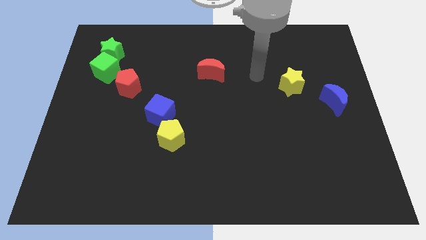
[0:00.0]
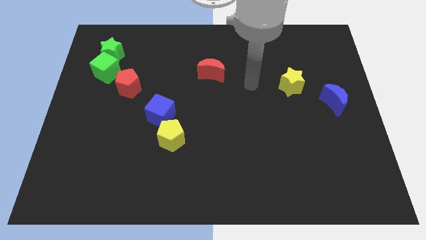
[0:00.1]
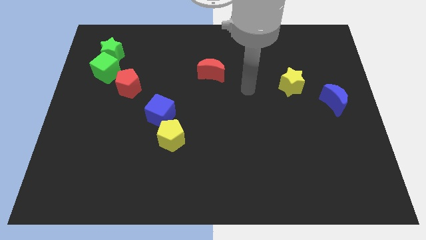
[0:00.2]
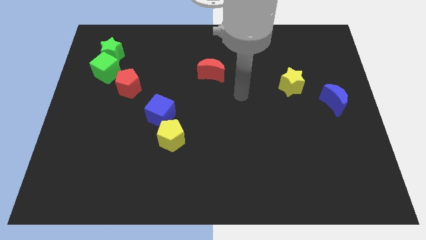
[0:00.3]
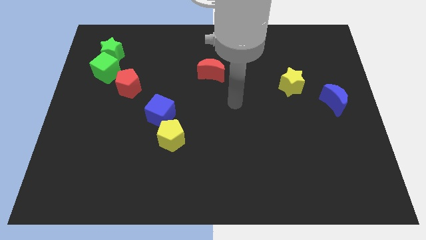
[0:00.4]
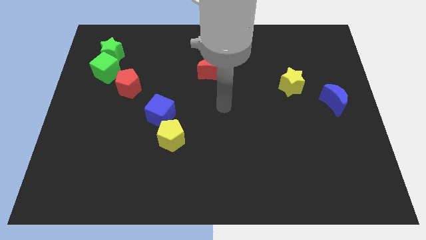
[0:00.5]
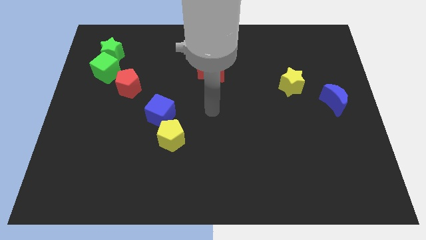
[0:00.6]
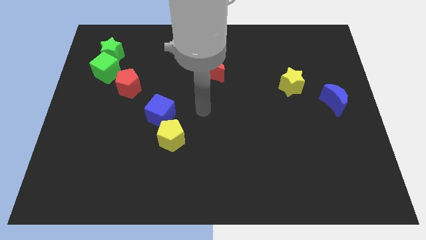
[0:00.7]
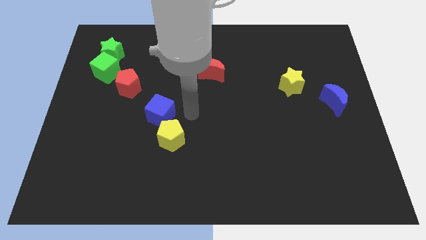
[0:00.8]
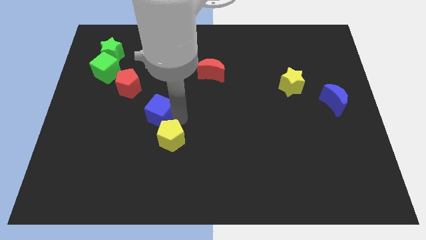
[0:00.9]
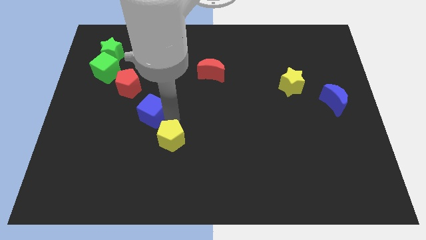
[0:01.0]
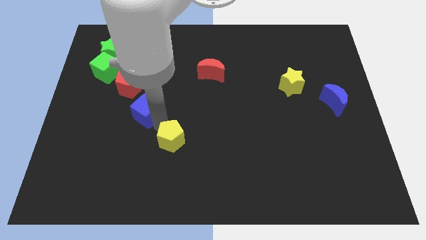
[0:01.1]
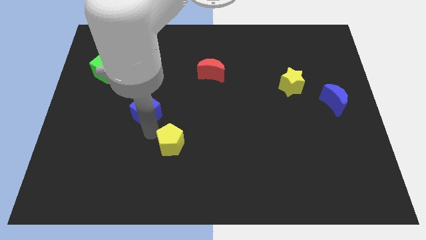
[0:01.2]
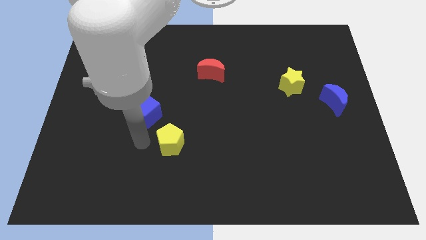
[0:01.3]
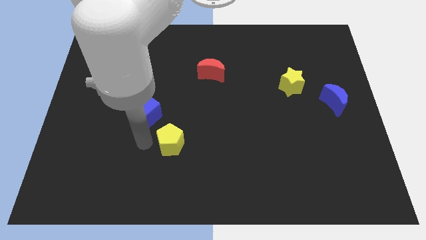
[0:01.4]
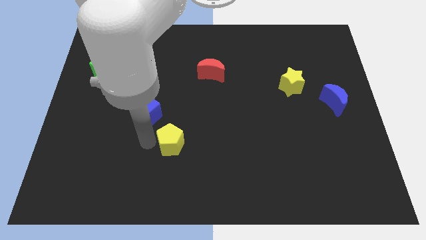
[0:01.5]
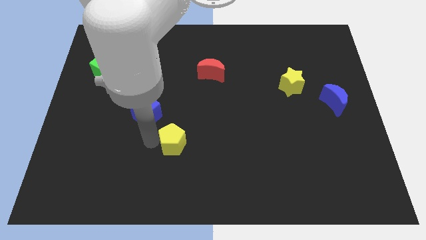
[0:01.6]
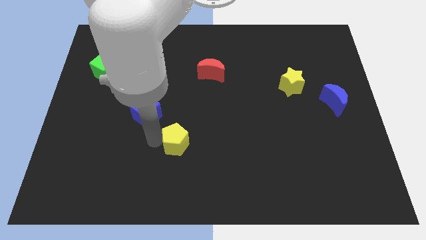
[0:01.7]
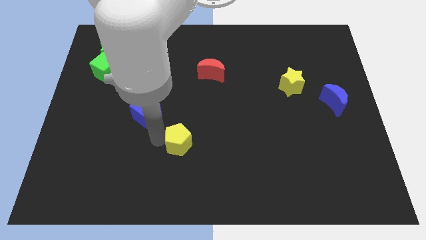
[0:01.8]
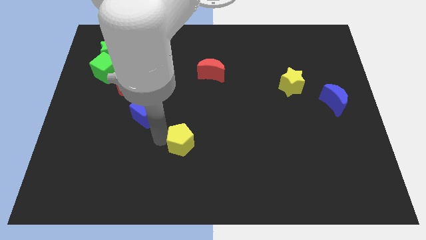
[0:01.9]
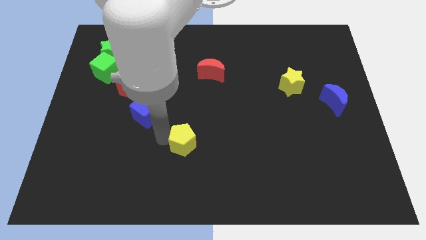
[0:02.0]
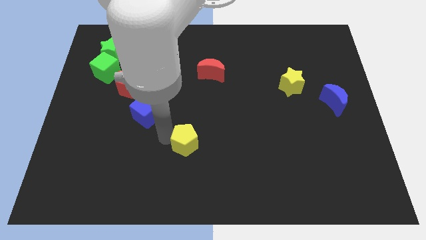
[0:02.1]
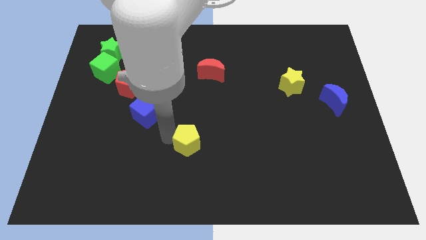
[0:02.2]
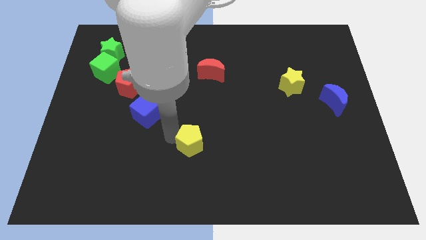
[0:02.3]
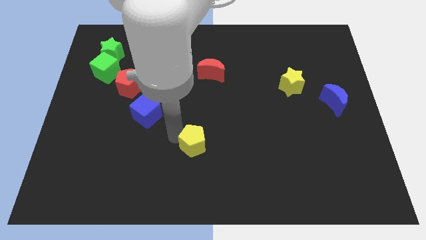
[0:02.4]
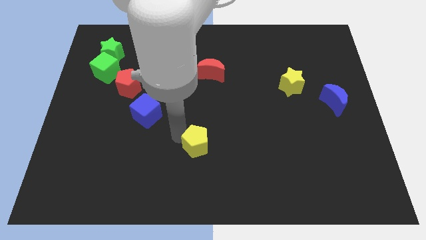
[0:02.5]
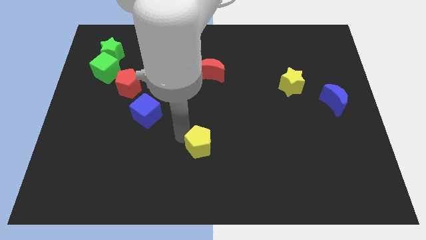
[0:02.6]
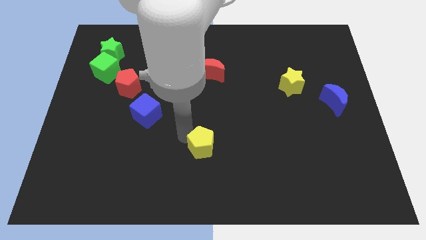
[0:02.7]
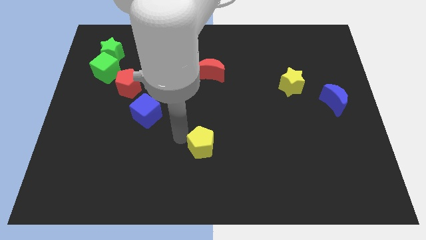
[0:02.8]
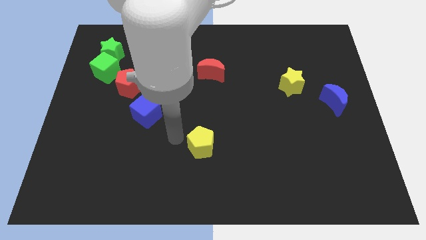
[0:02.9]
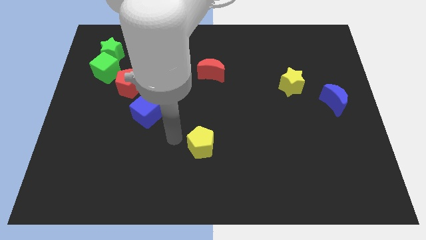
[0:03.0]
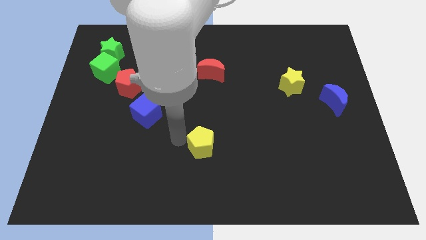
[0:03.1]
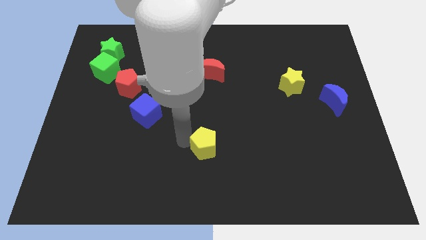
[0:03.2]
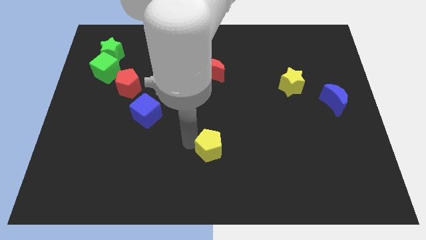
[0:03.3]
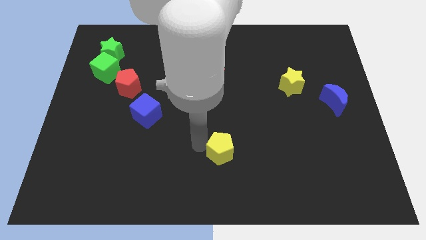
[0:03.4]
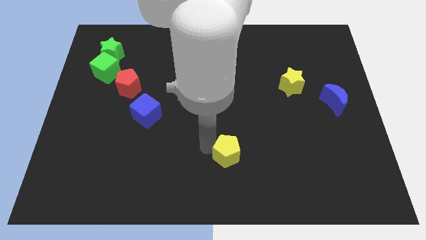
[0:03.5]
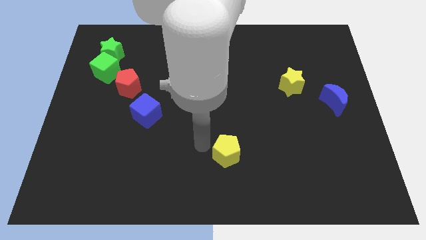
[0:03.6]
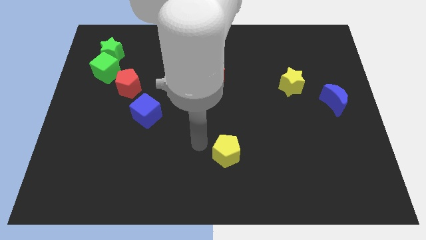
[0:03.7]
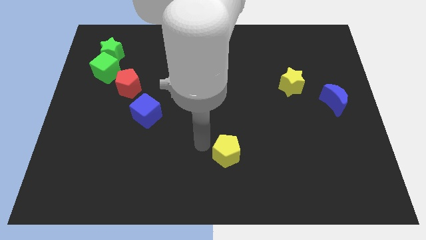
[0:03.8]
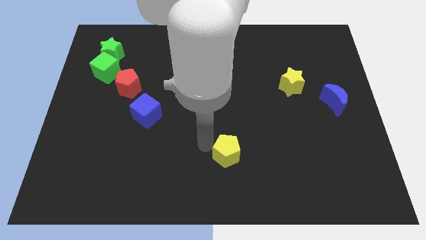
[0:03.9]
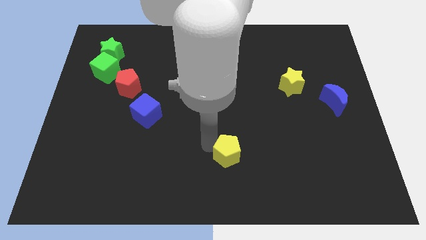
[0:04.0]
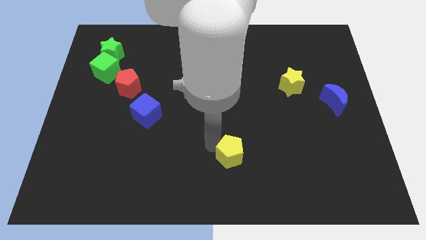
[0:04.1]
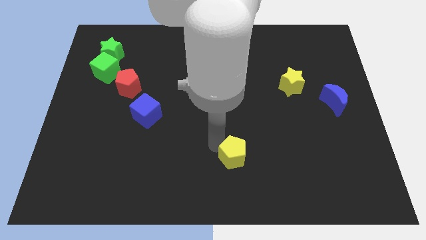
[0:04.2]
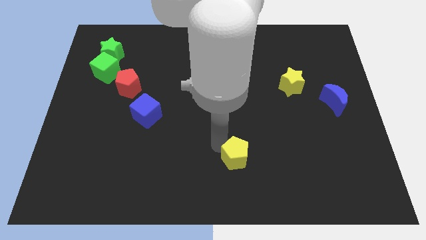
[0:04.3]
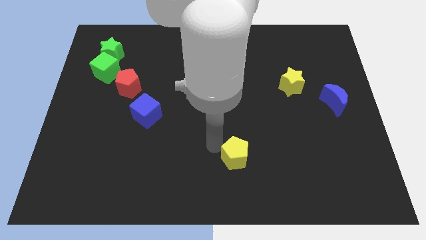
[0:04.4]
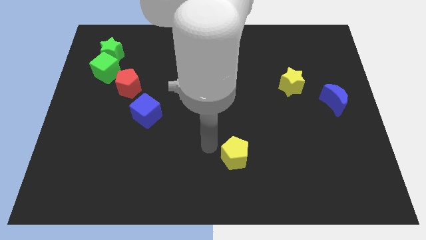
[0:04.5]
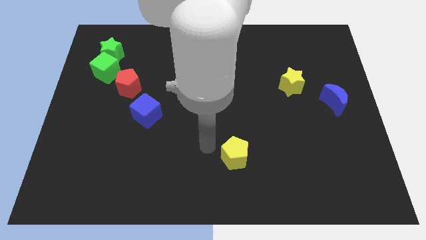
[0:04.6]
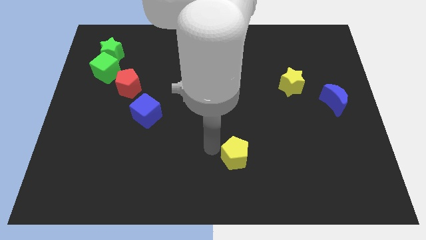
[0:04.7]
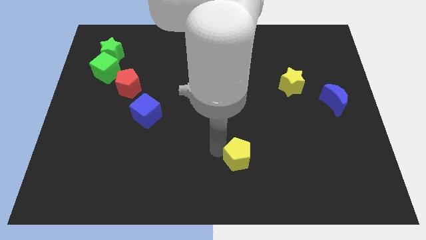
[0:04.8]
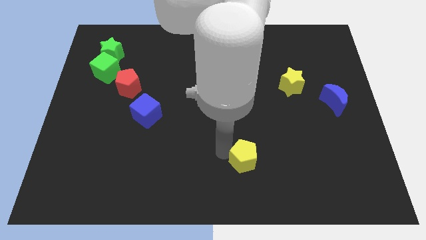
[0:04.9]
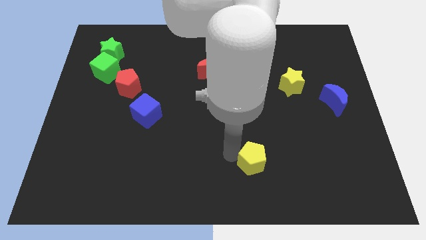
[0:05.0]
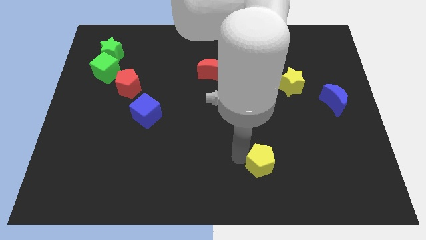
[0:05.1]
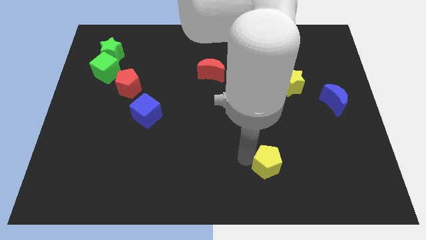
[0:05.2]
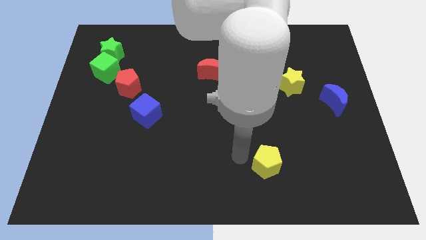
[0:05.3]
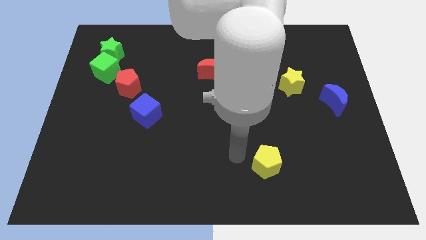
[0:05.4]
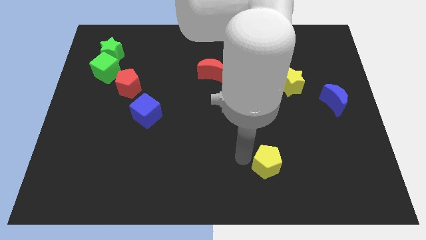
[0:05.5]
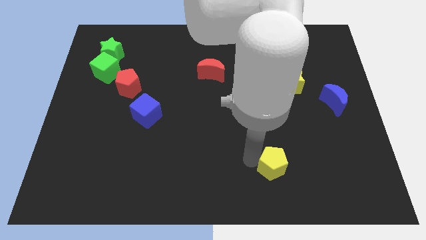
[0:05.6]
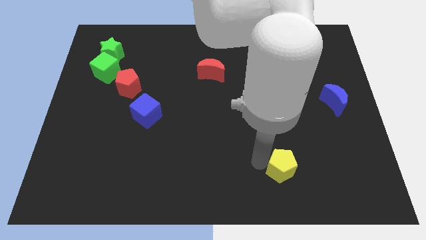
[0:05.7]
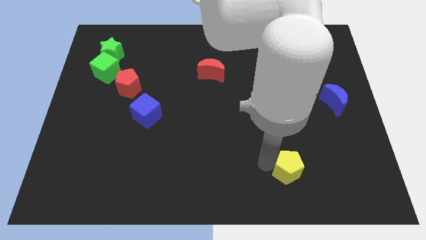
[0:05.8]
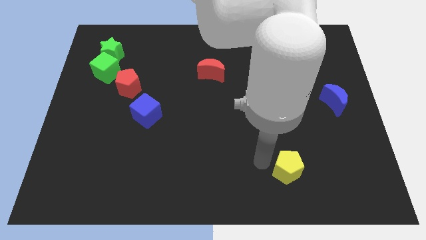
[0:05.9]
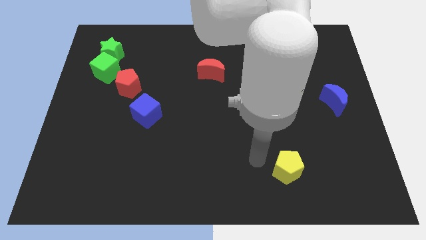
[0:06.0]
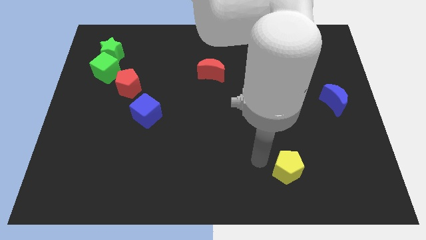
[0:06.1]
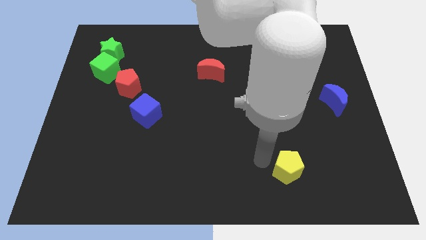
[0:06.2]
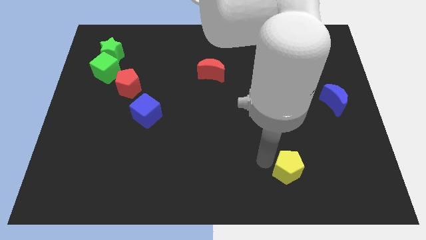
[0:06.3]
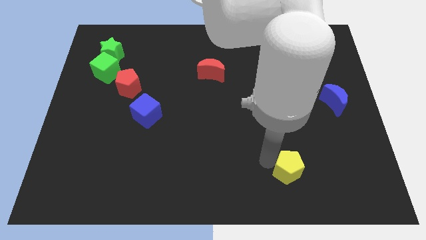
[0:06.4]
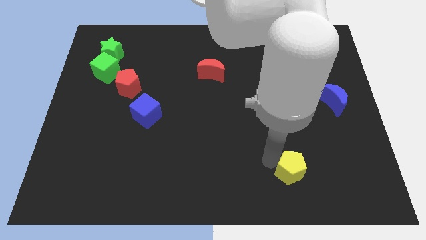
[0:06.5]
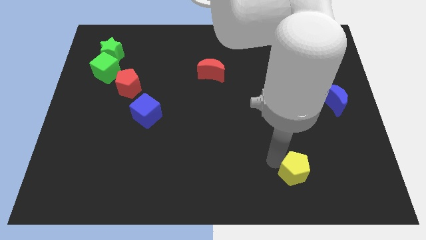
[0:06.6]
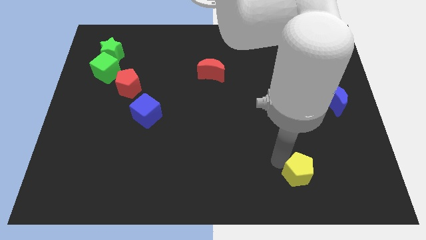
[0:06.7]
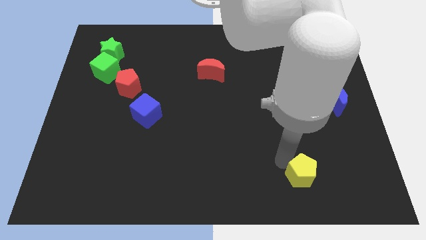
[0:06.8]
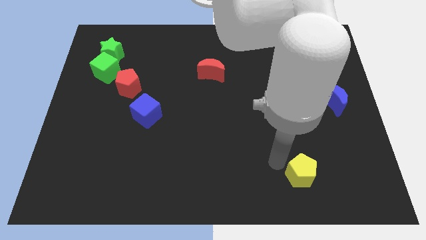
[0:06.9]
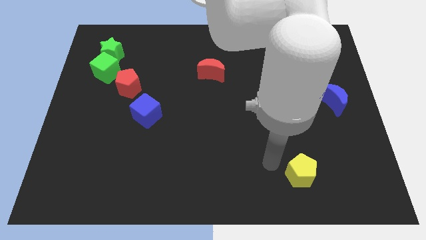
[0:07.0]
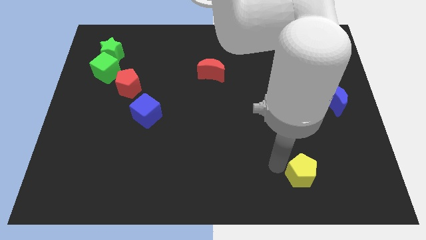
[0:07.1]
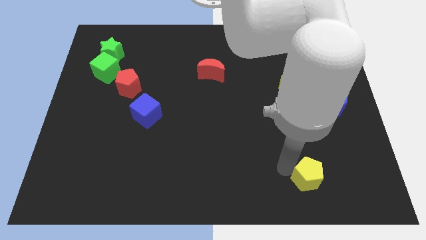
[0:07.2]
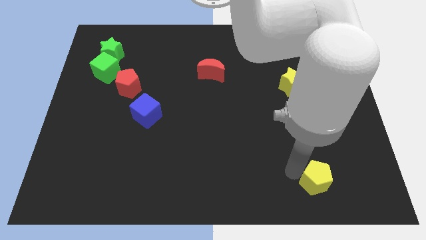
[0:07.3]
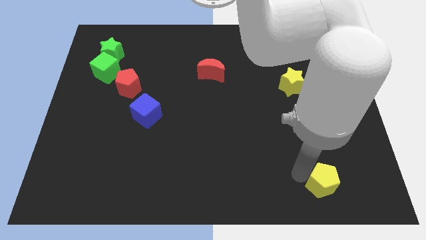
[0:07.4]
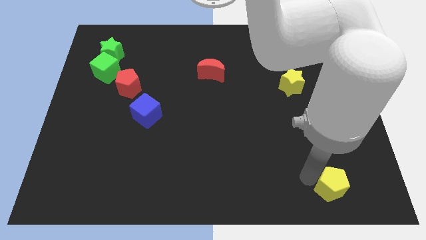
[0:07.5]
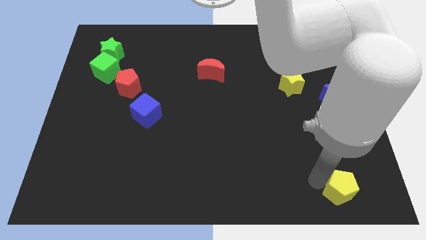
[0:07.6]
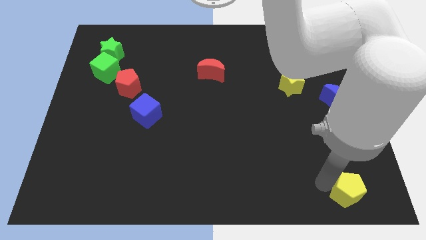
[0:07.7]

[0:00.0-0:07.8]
slide the yellow pentagon to the lower right corner
